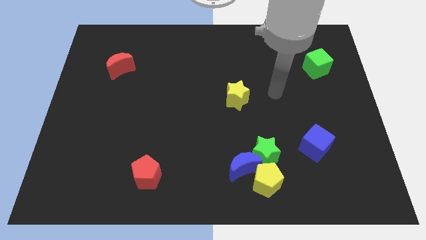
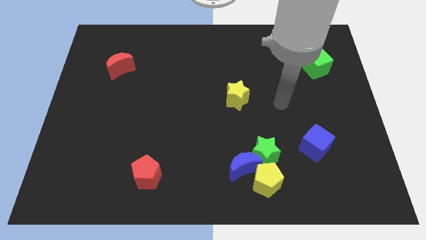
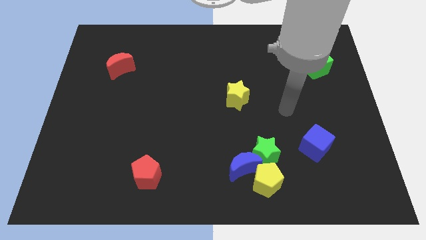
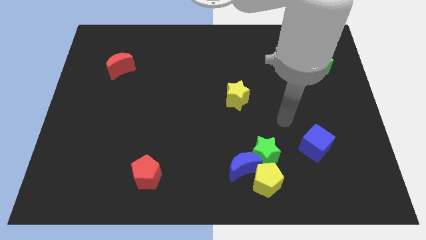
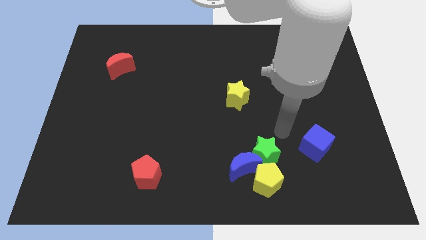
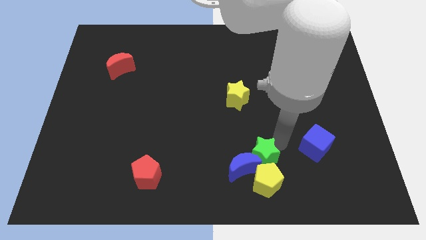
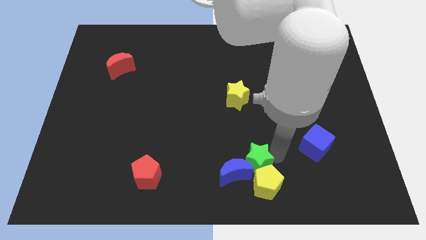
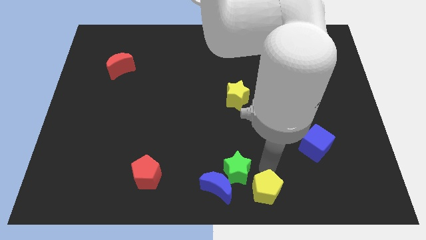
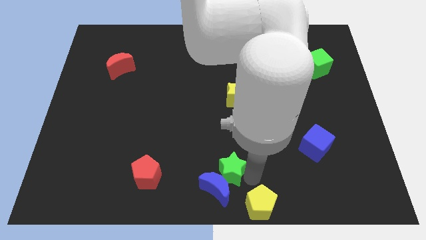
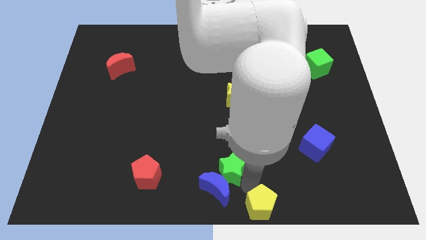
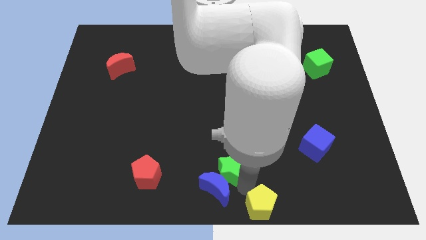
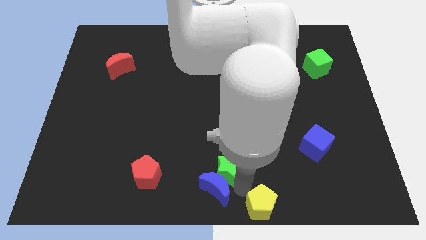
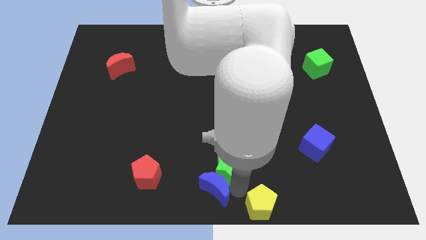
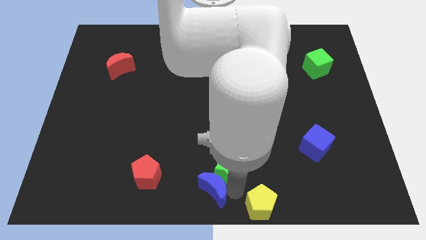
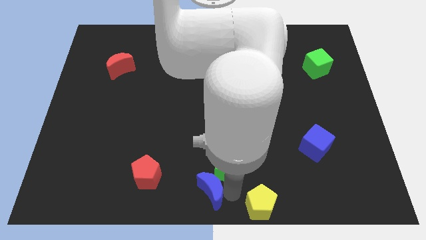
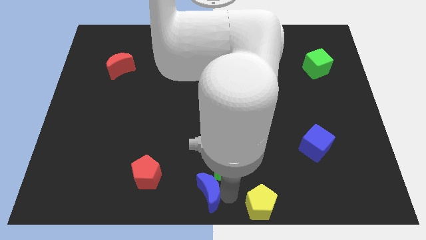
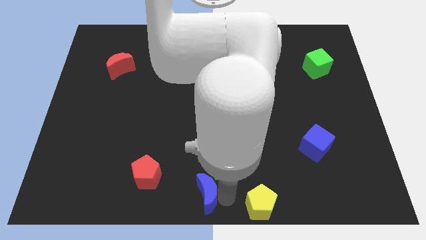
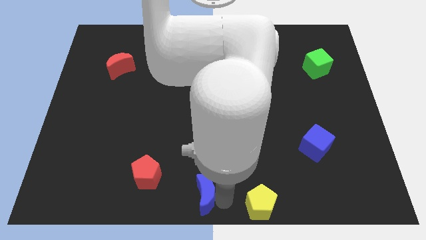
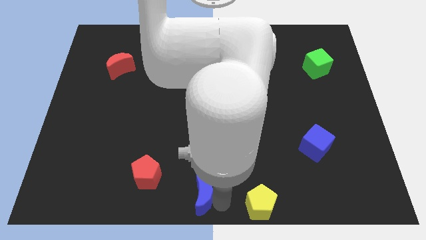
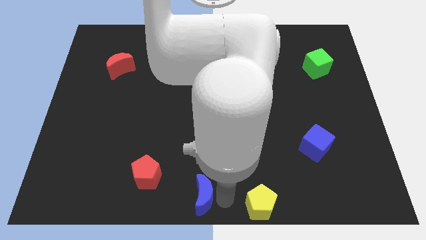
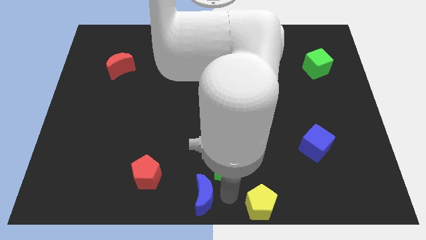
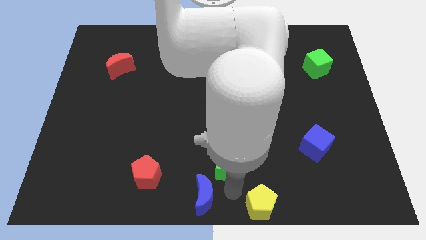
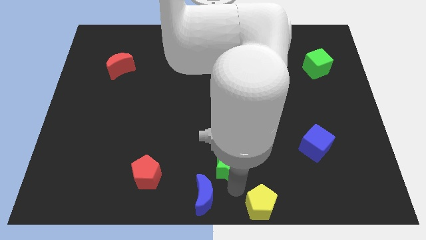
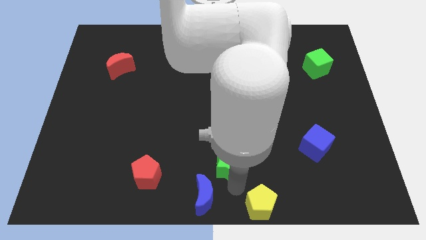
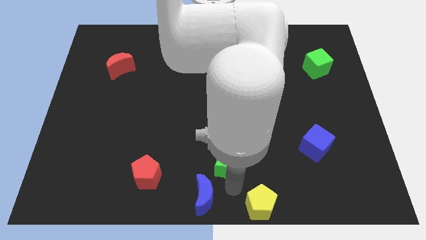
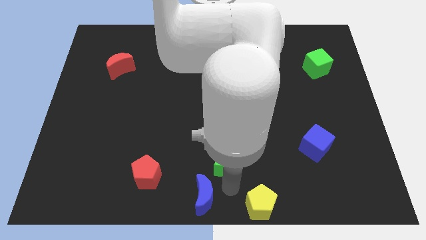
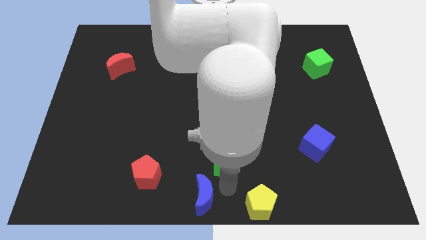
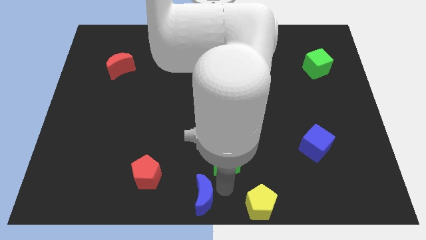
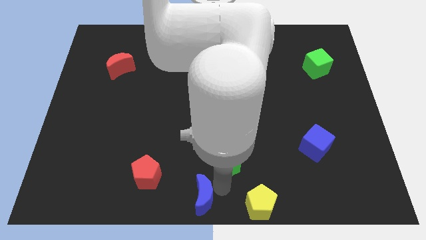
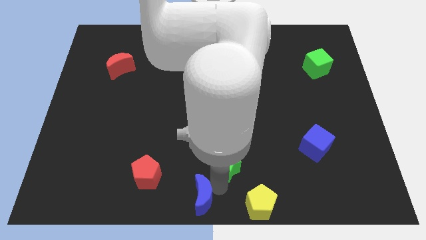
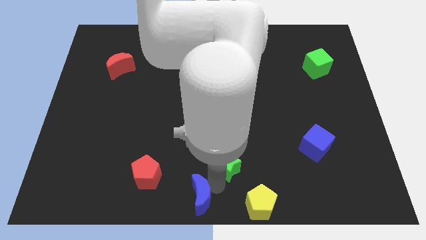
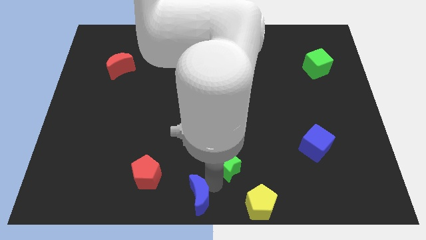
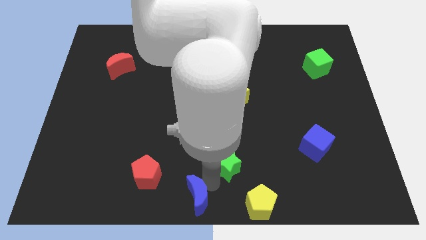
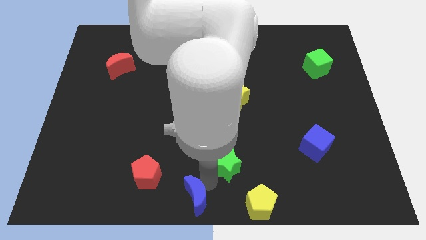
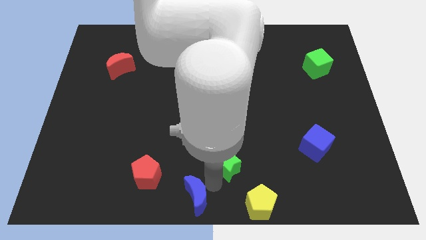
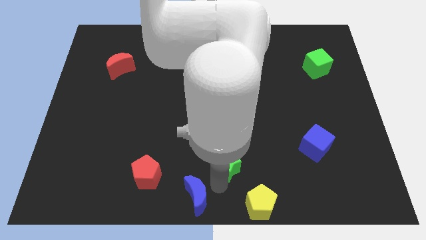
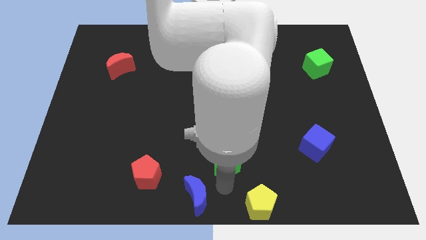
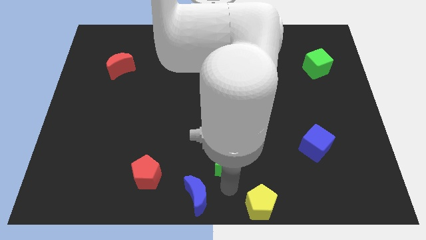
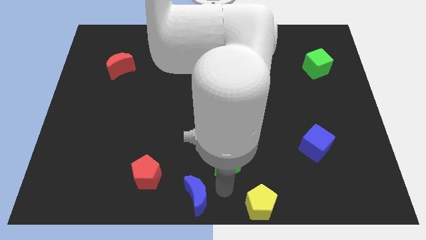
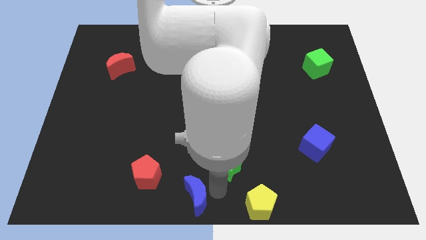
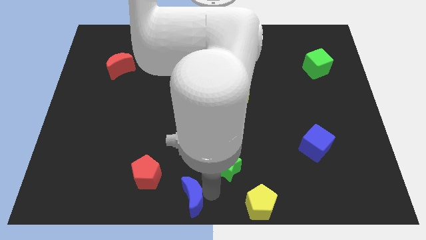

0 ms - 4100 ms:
move the blue moon away from the yellow pentagon and green star

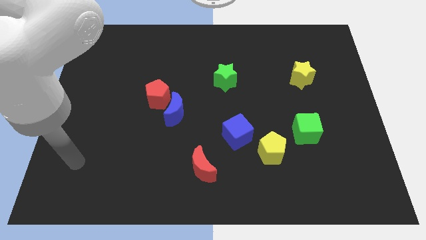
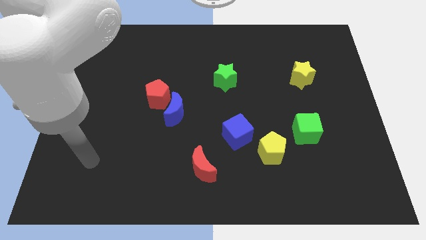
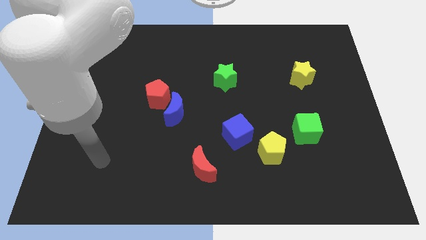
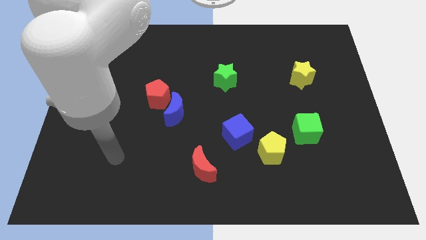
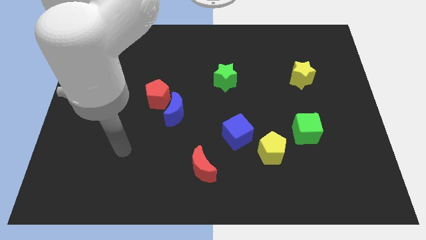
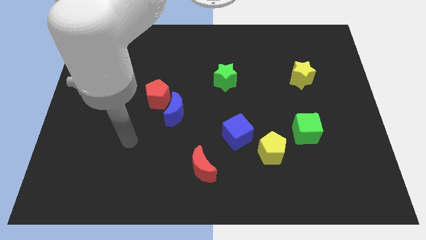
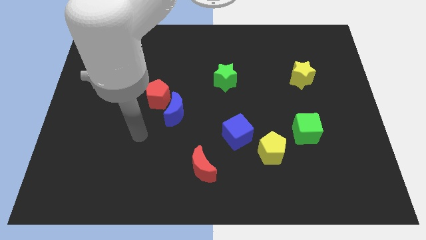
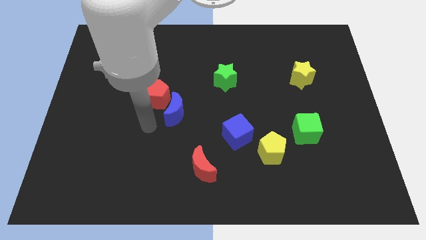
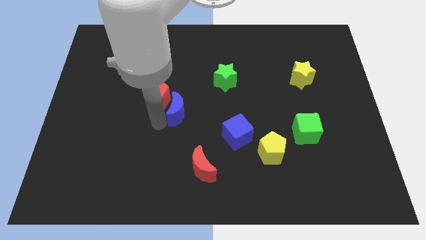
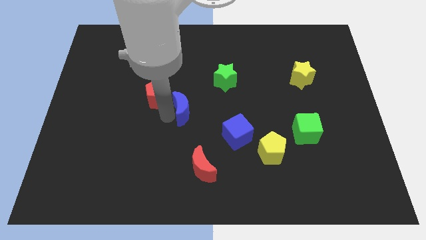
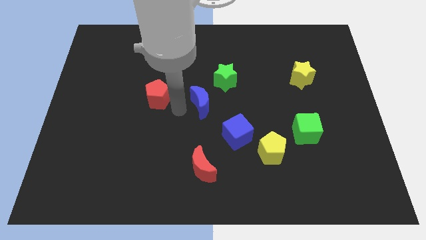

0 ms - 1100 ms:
pull the red pentagon apart from the blue moon

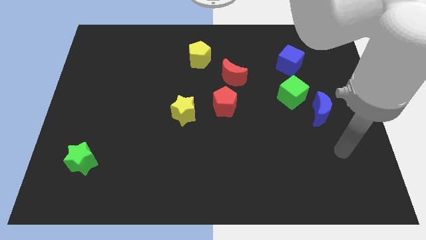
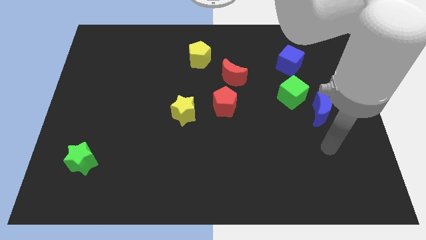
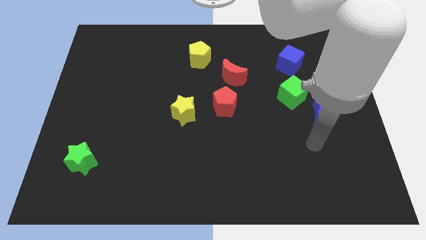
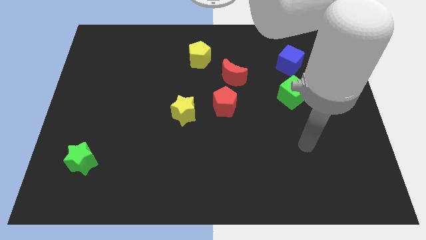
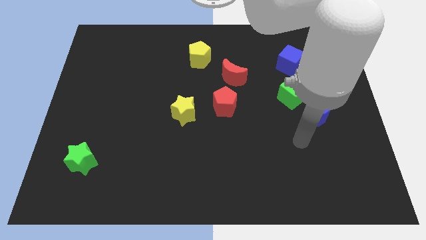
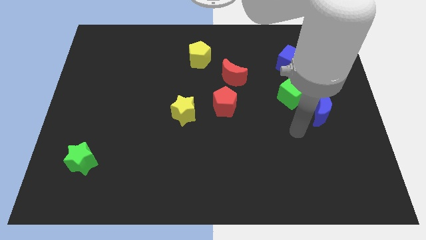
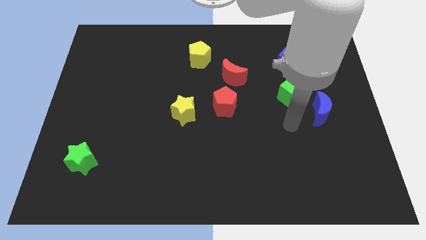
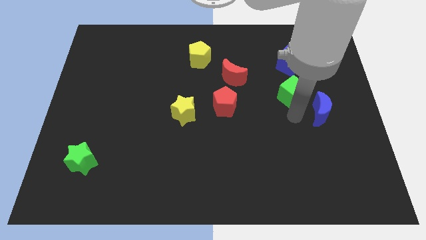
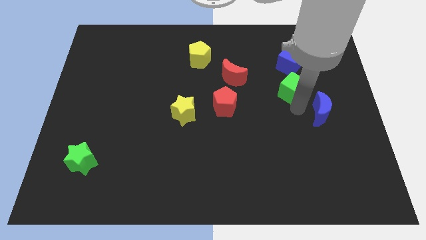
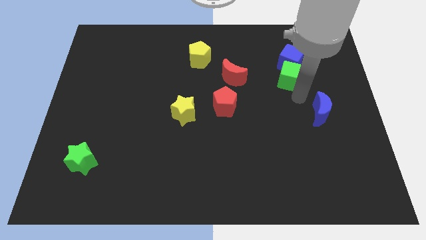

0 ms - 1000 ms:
separate the blue moon from the green cube

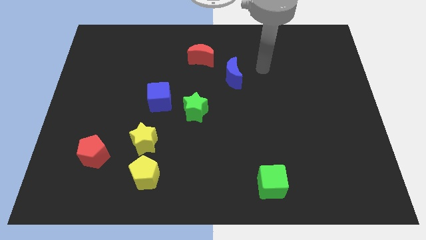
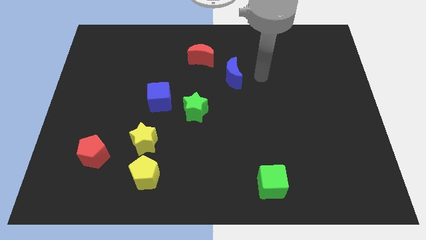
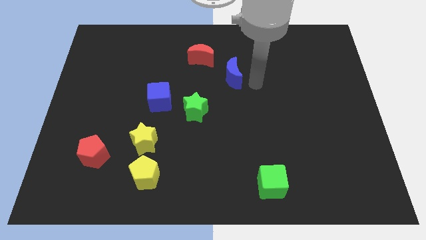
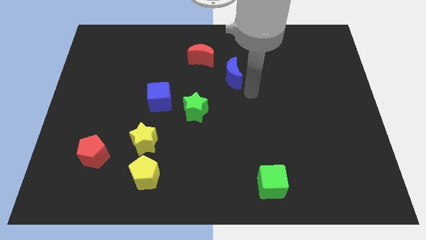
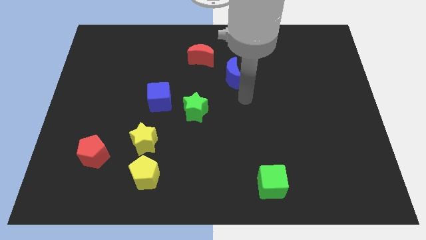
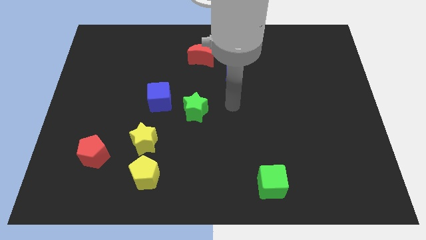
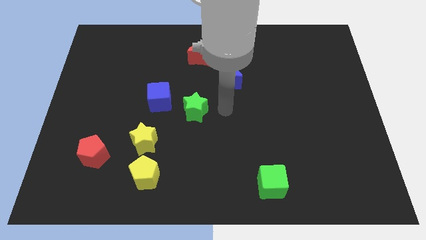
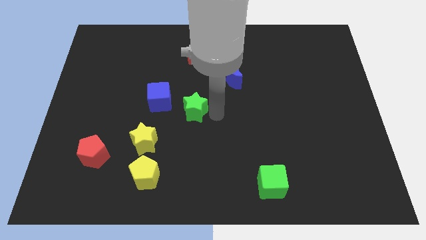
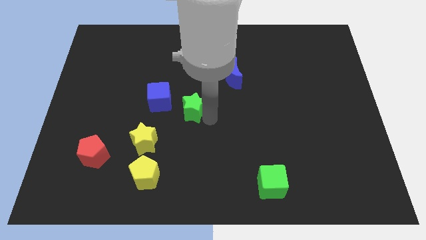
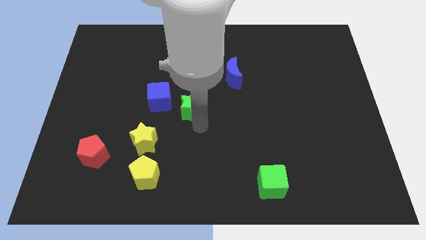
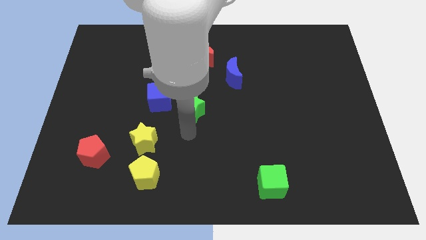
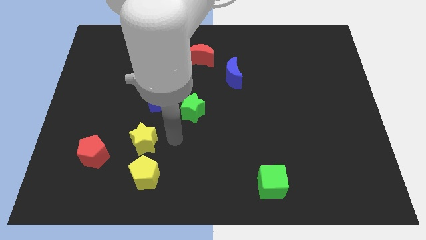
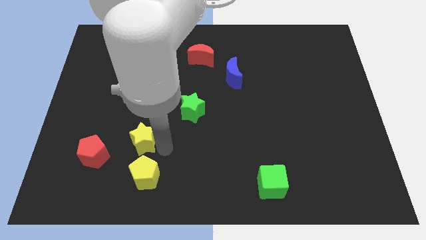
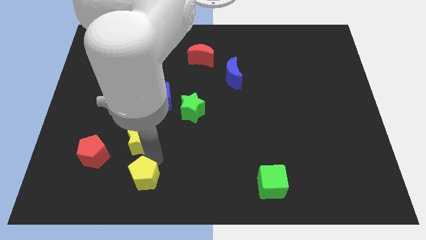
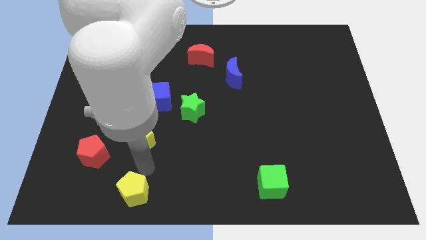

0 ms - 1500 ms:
separate the yellow star from the yellow pentagon

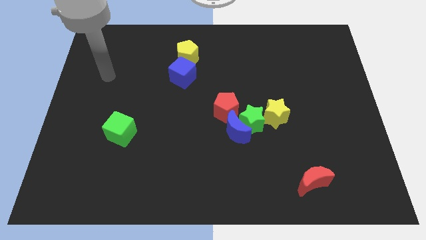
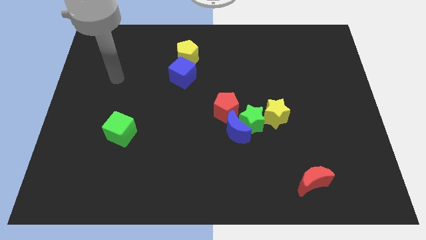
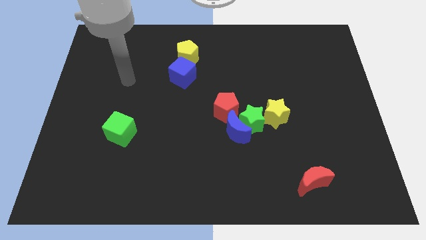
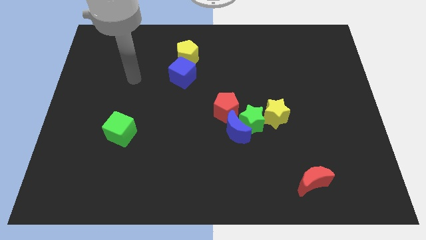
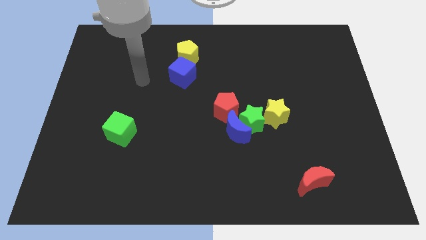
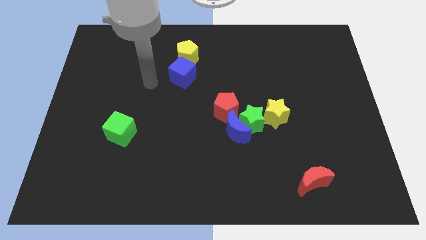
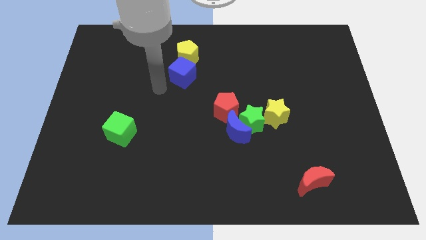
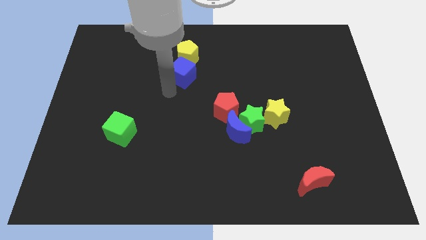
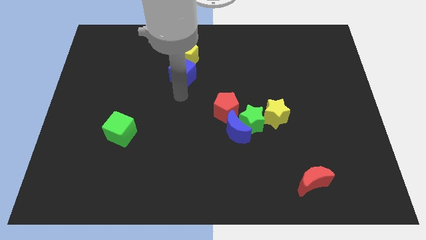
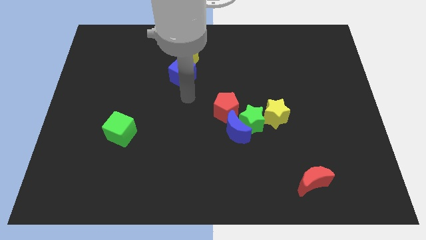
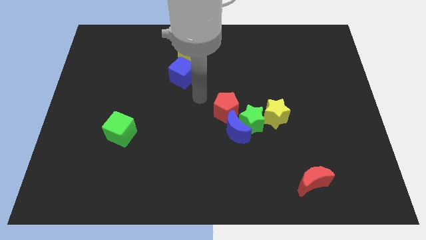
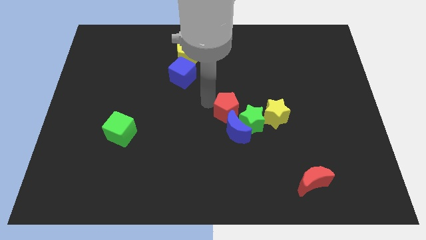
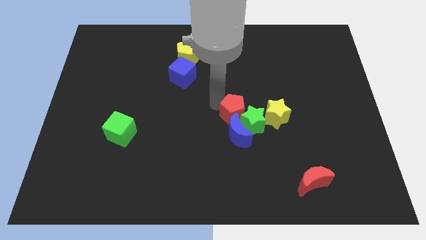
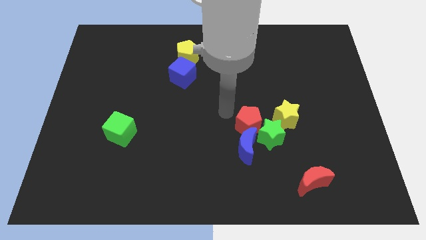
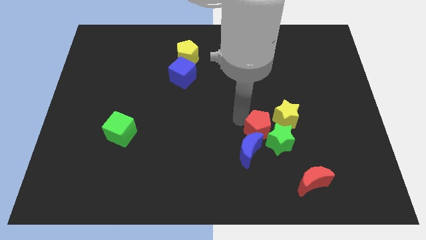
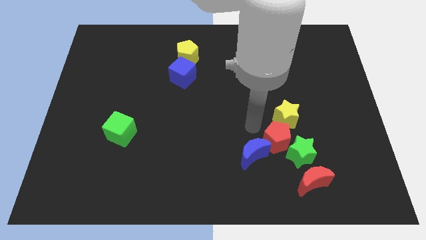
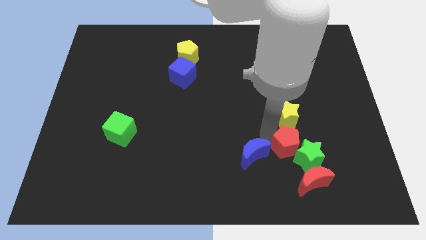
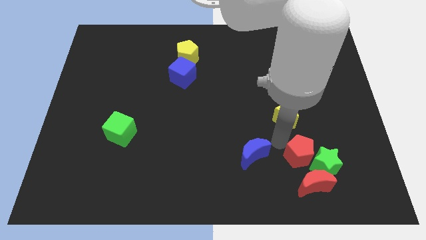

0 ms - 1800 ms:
move the green star away from the group of blocks
